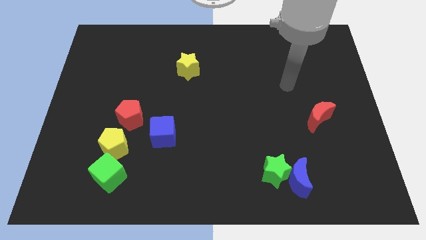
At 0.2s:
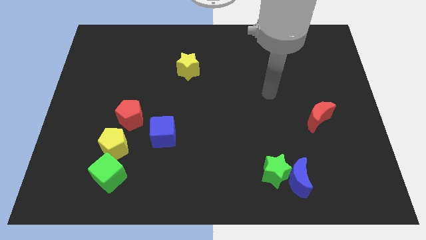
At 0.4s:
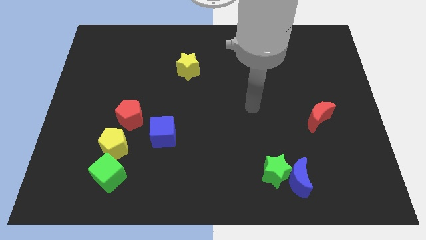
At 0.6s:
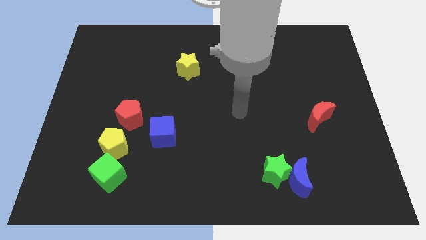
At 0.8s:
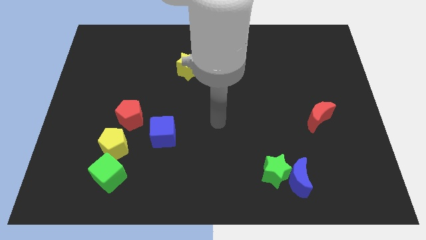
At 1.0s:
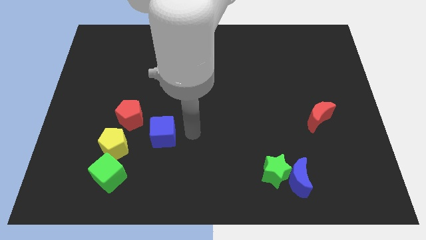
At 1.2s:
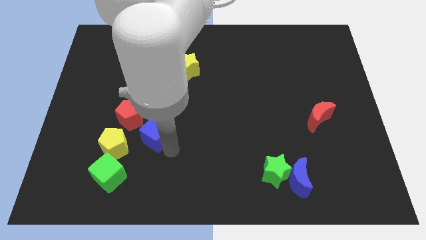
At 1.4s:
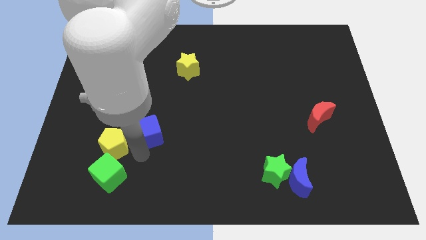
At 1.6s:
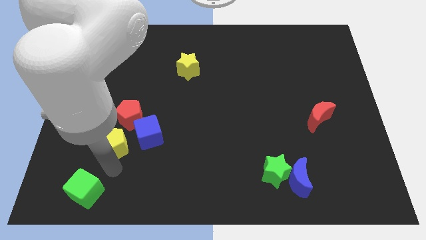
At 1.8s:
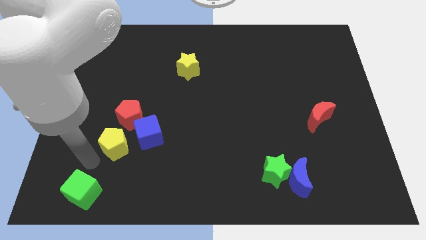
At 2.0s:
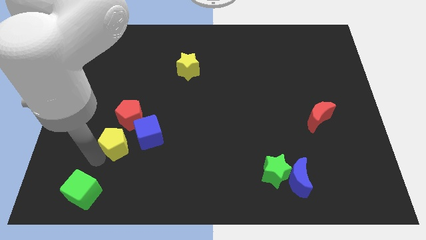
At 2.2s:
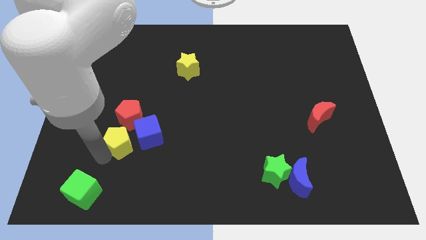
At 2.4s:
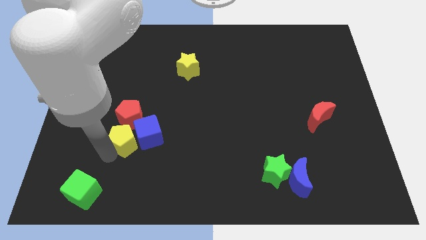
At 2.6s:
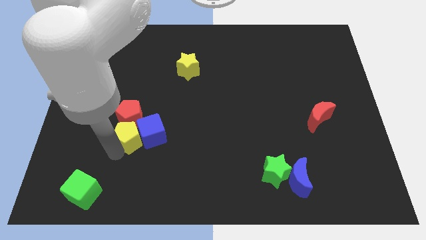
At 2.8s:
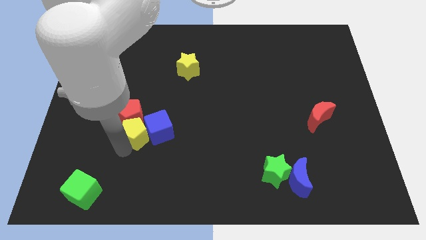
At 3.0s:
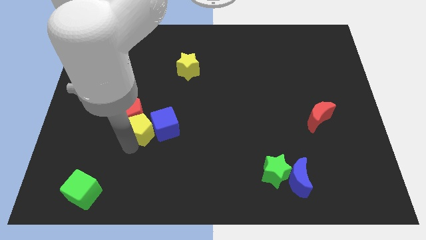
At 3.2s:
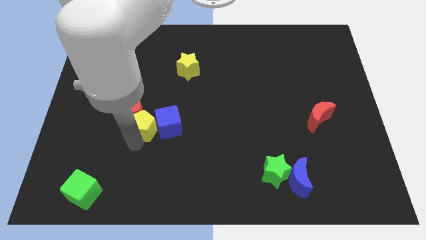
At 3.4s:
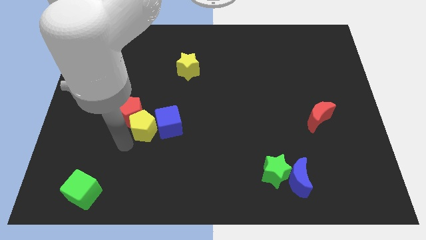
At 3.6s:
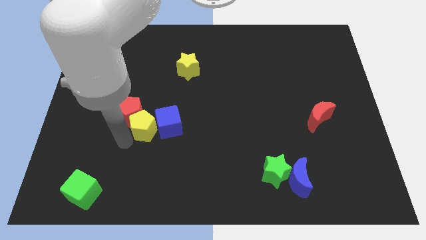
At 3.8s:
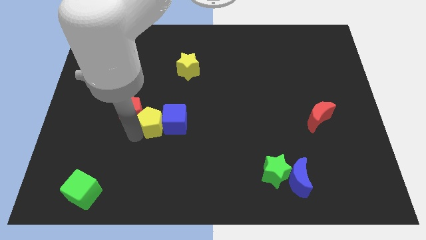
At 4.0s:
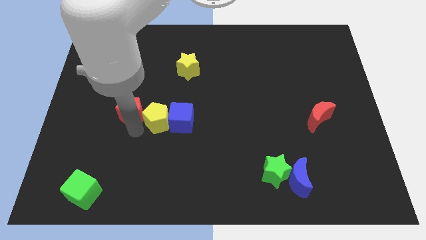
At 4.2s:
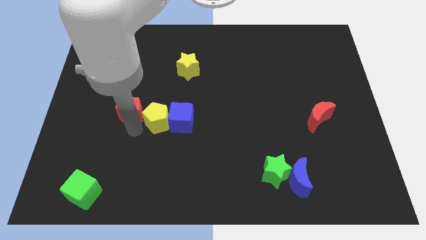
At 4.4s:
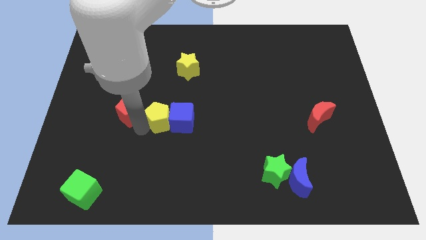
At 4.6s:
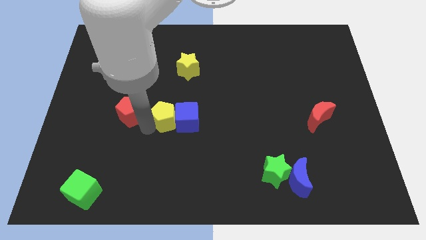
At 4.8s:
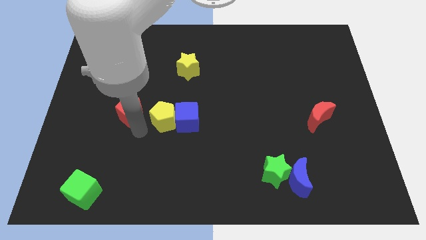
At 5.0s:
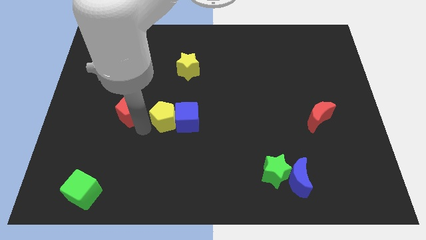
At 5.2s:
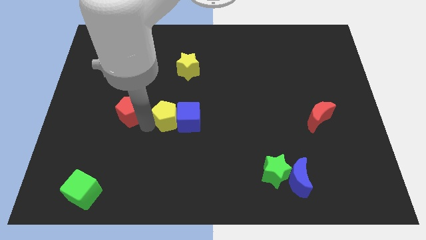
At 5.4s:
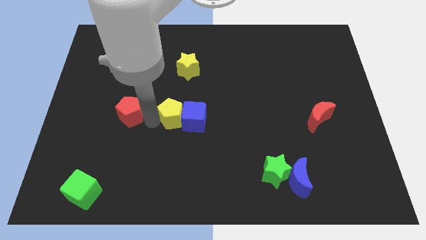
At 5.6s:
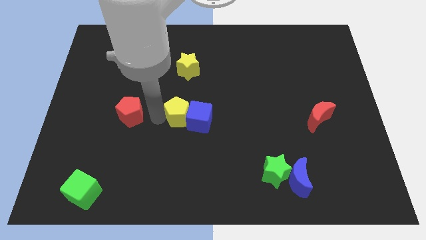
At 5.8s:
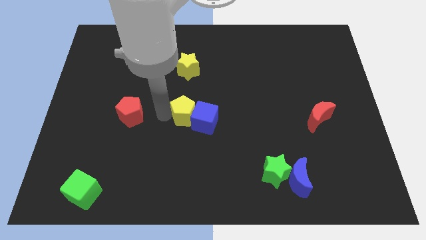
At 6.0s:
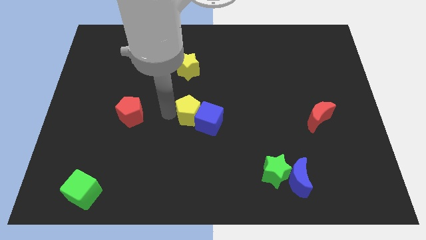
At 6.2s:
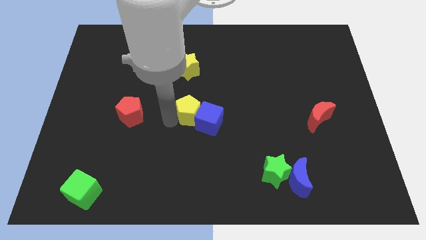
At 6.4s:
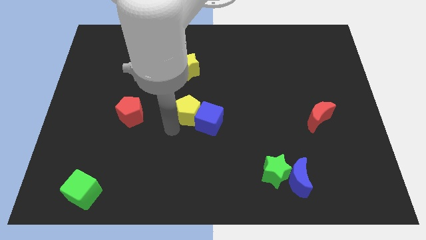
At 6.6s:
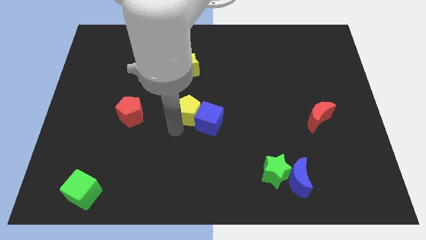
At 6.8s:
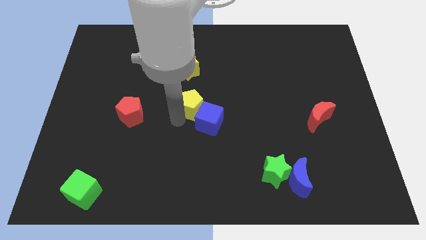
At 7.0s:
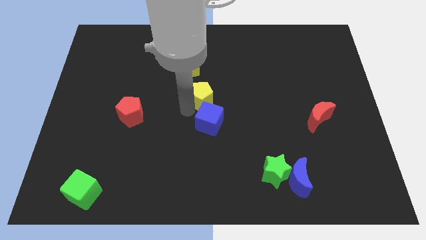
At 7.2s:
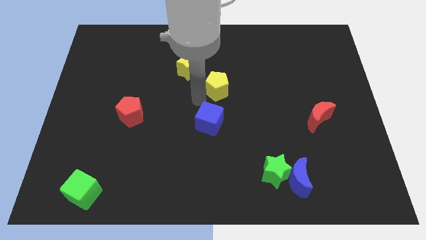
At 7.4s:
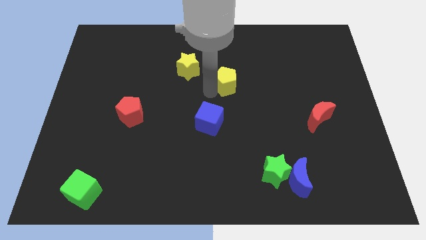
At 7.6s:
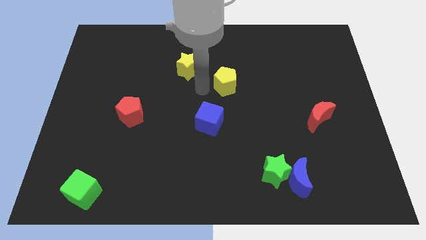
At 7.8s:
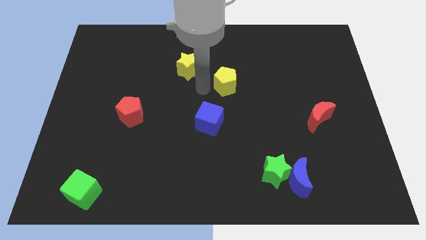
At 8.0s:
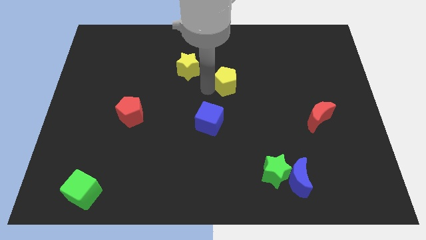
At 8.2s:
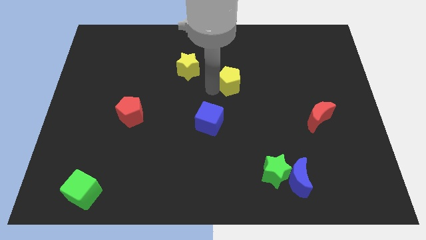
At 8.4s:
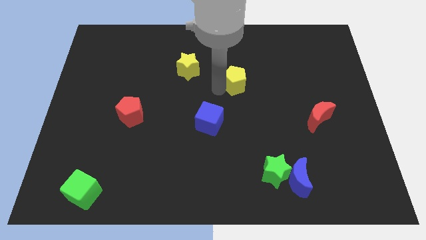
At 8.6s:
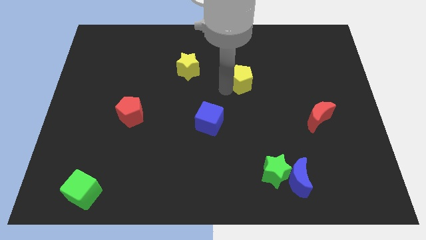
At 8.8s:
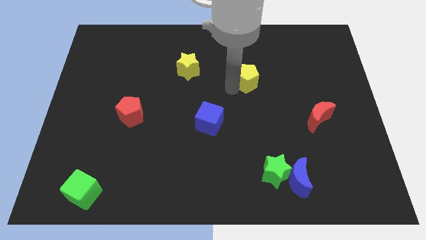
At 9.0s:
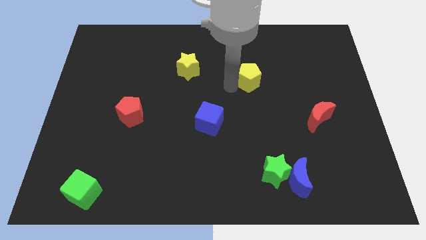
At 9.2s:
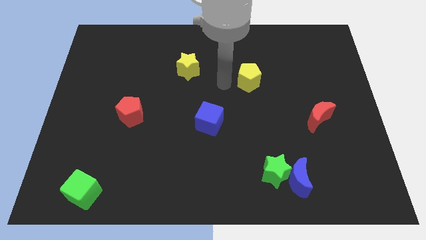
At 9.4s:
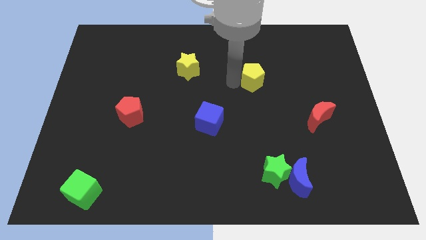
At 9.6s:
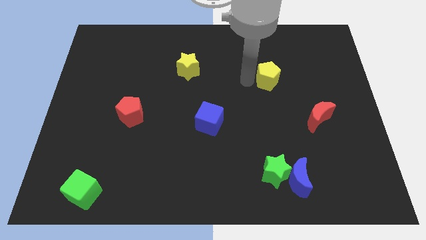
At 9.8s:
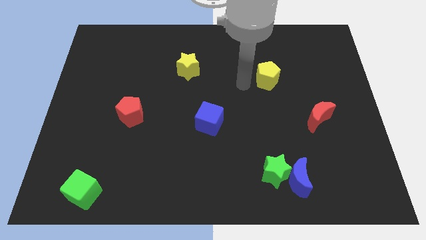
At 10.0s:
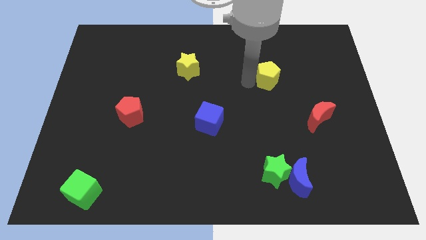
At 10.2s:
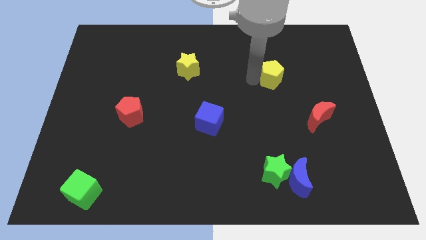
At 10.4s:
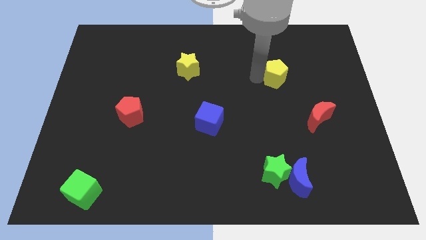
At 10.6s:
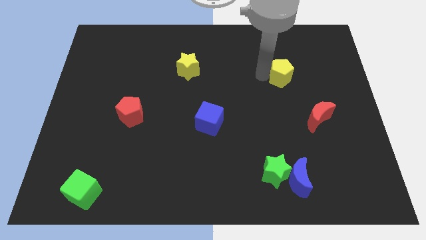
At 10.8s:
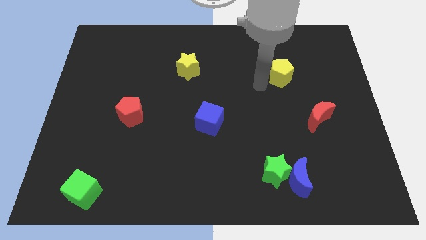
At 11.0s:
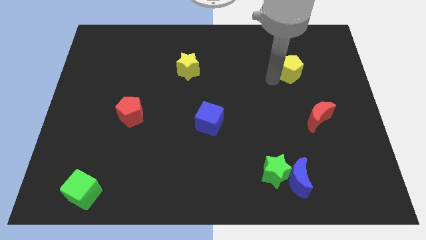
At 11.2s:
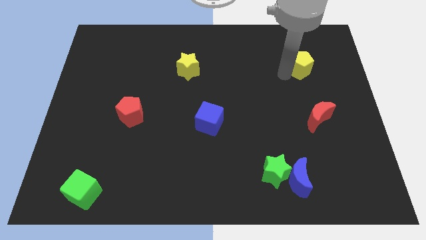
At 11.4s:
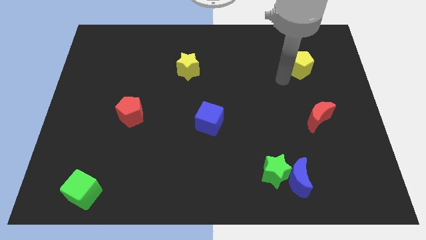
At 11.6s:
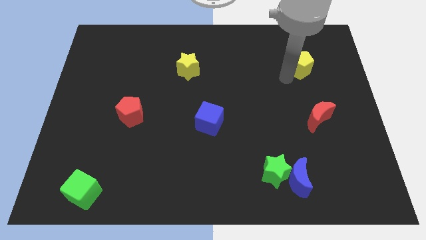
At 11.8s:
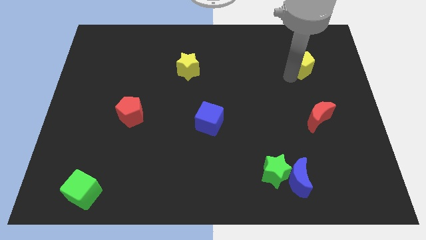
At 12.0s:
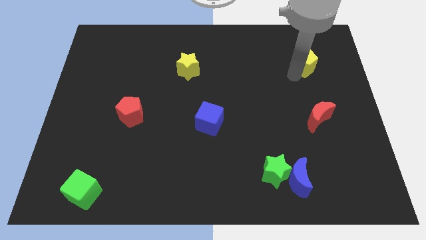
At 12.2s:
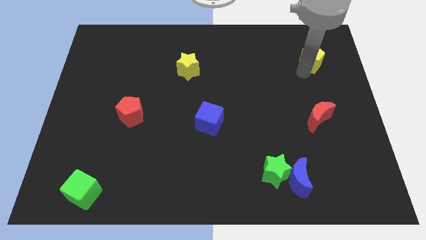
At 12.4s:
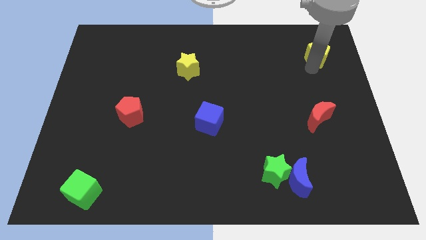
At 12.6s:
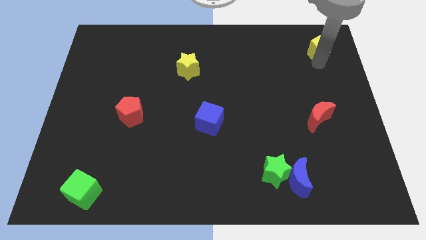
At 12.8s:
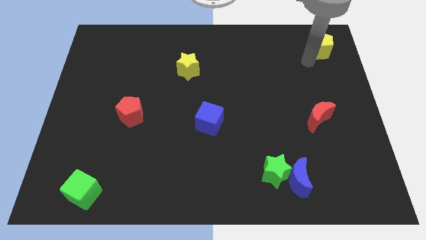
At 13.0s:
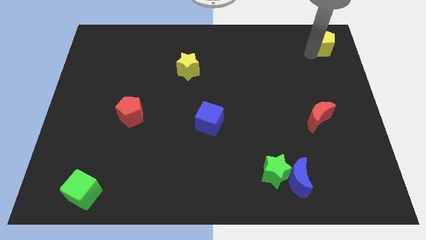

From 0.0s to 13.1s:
move the yellow pentagon to the upper right corner
